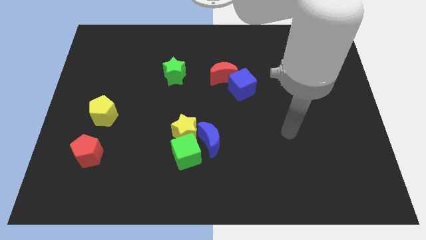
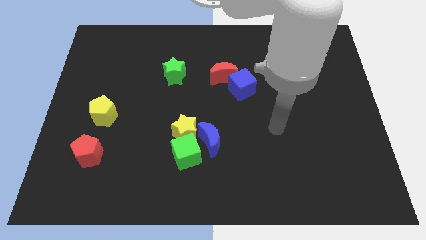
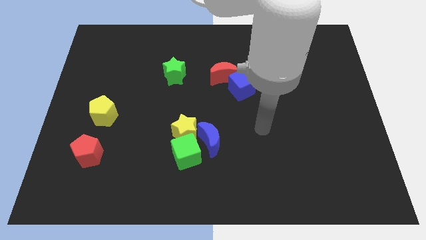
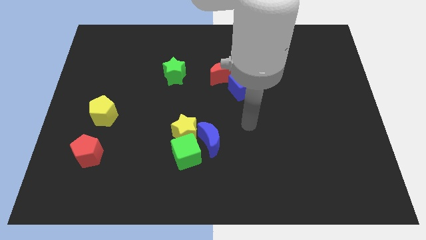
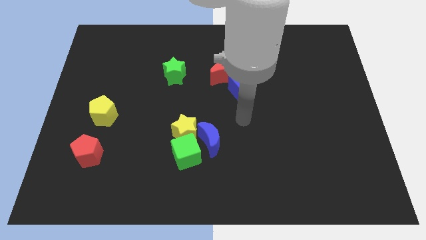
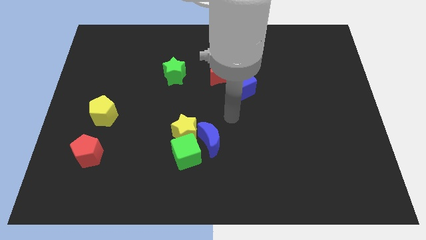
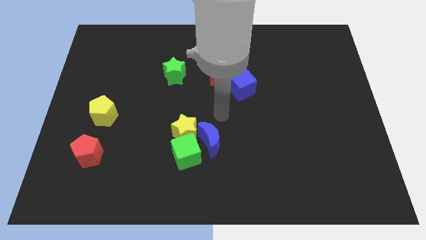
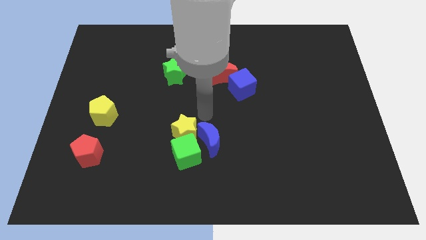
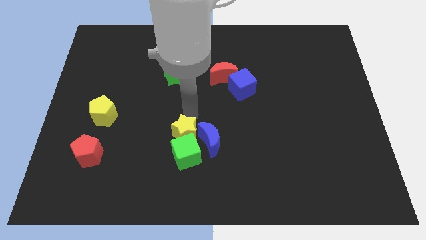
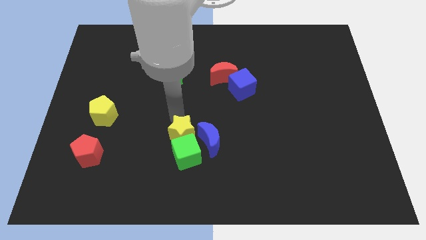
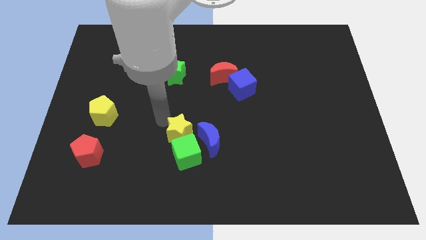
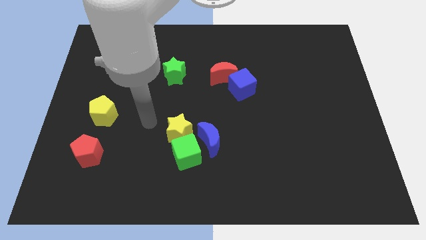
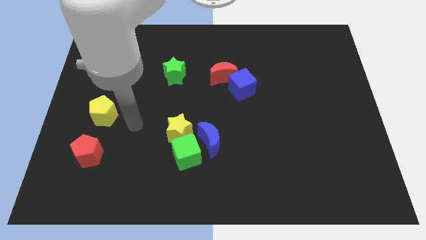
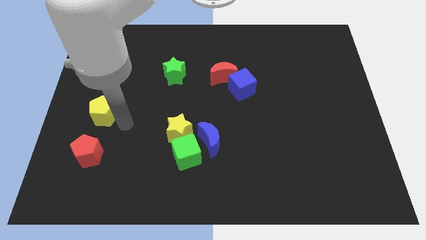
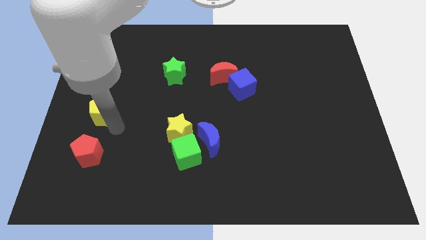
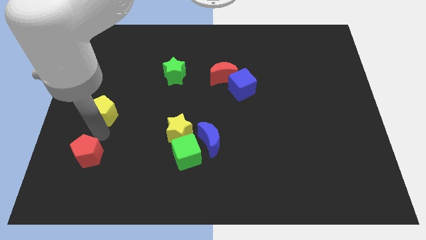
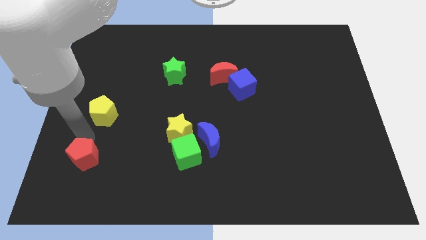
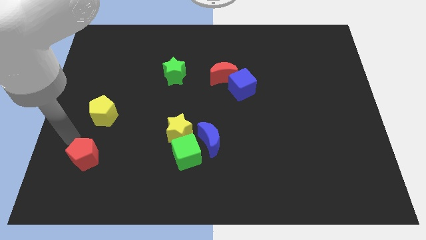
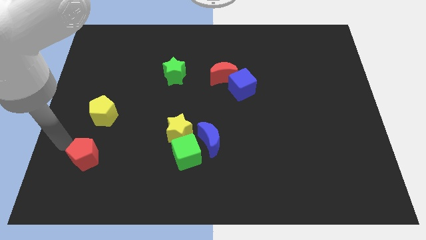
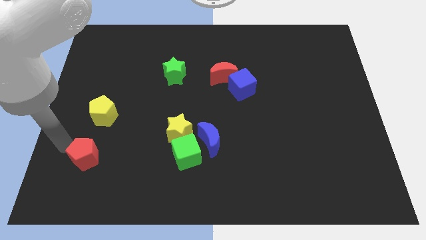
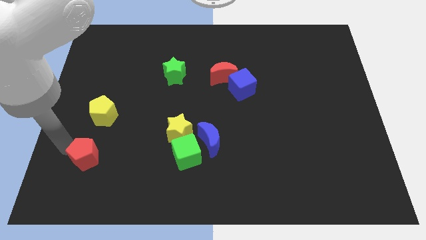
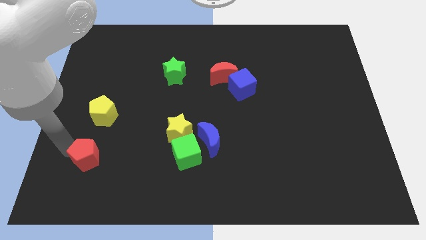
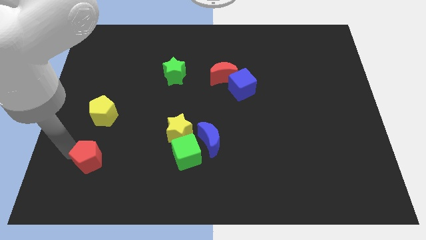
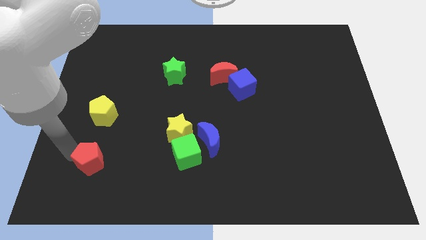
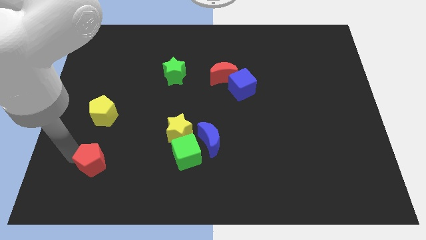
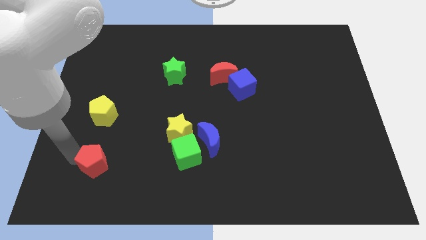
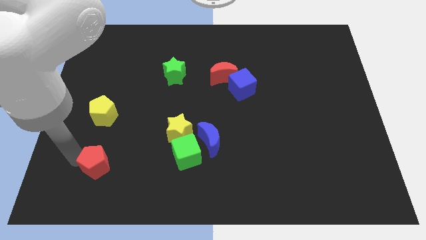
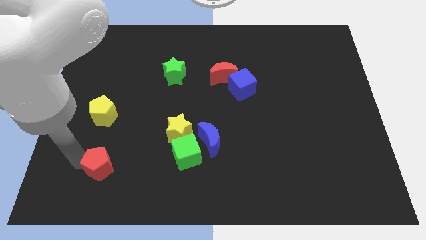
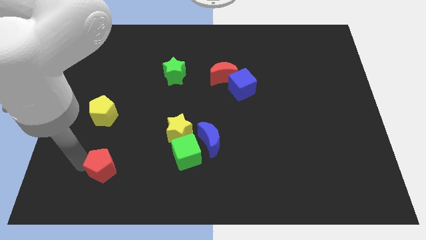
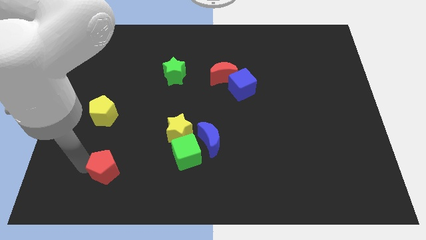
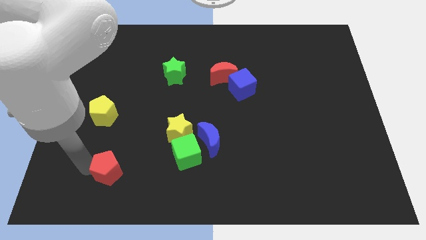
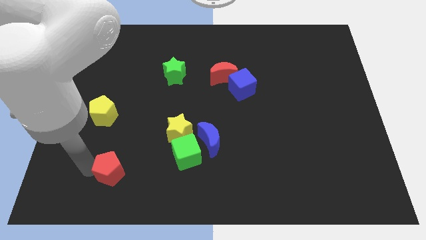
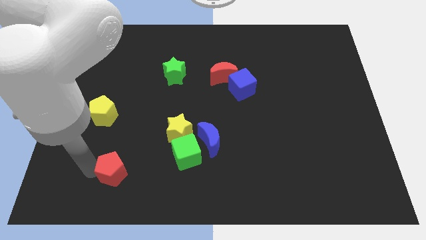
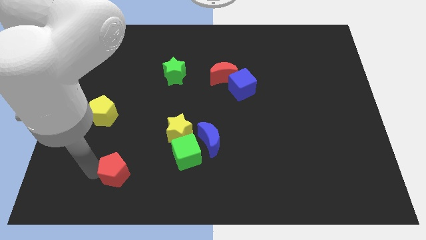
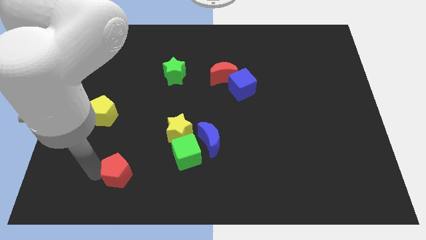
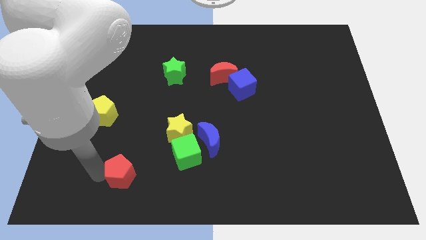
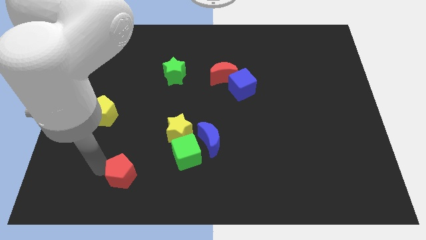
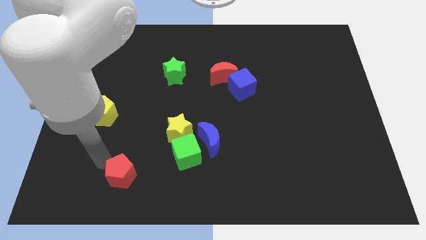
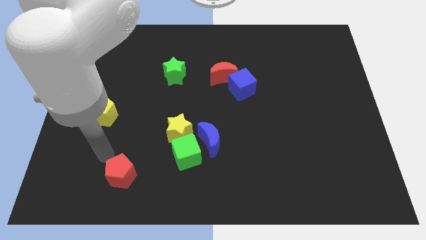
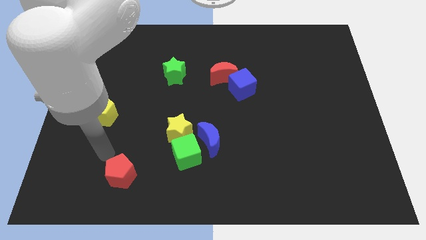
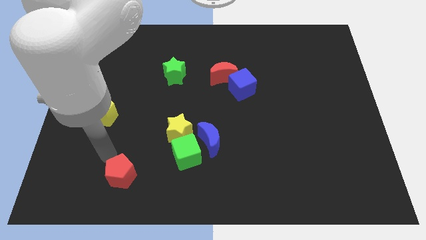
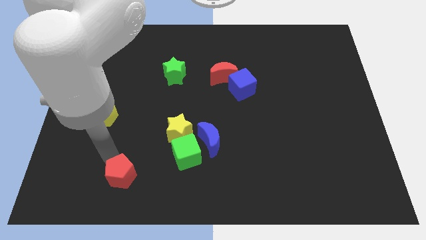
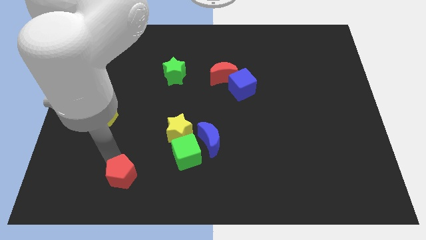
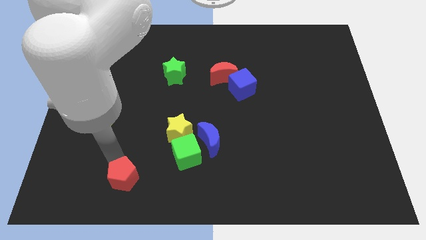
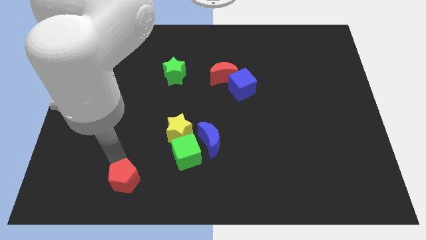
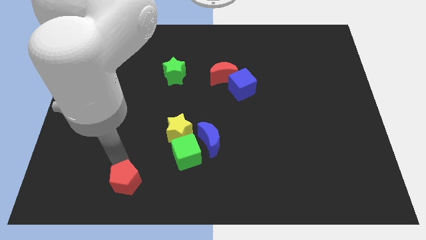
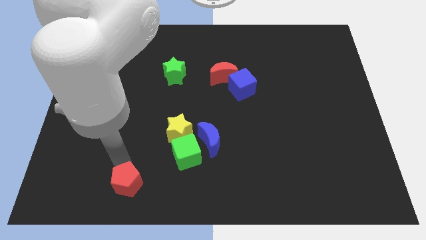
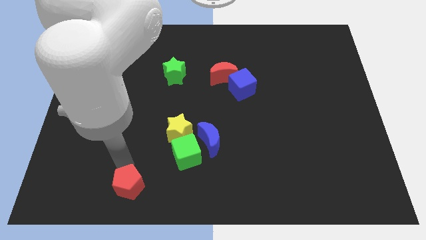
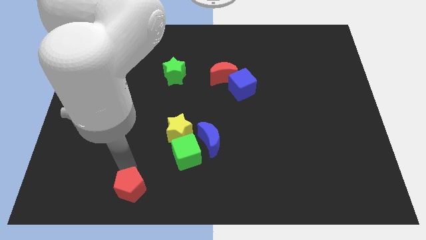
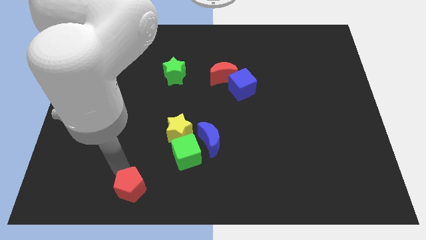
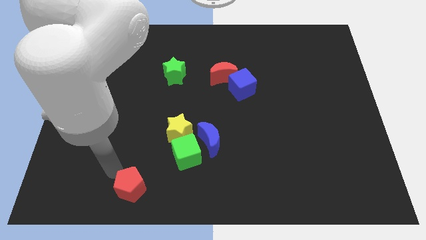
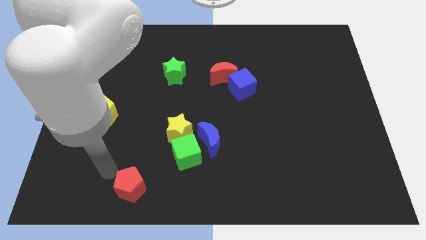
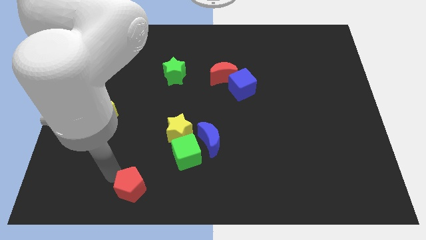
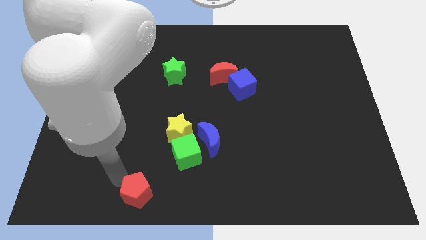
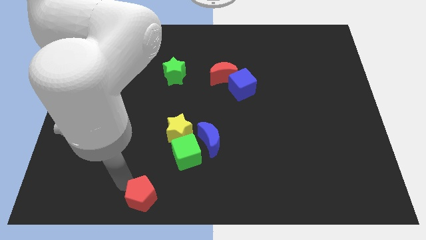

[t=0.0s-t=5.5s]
slide the red pentagon to the bottom side

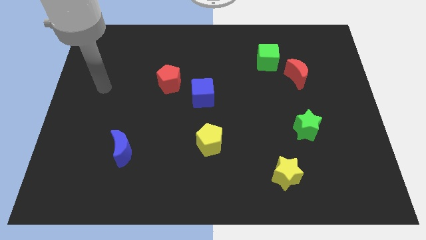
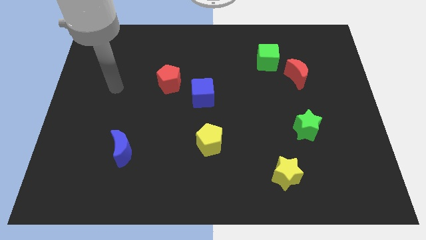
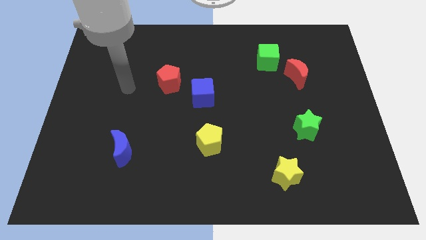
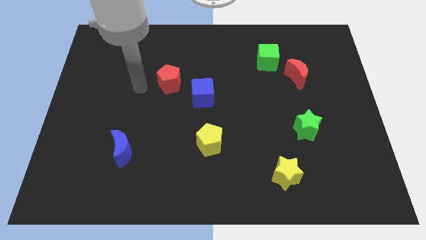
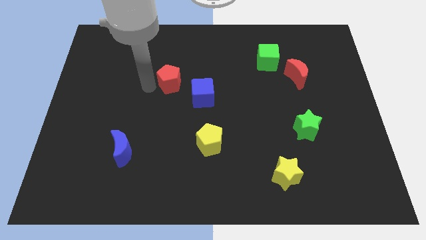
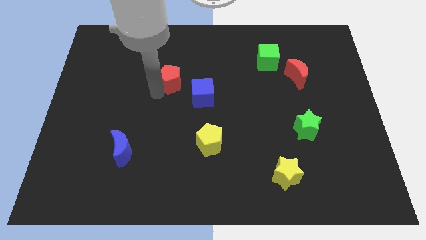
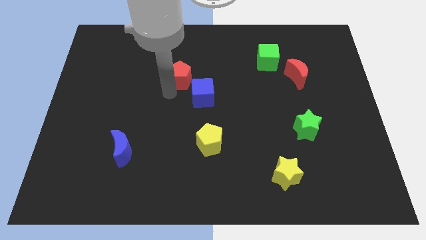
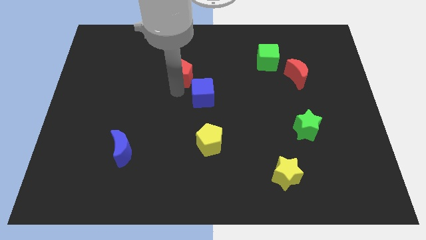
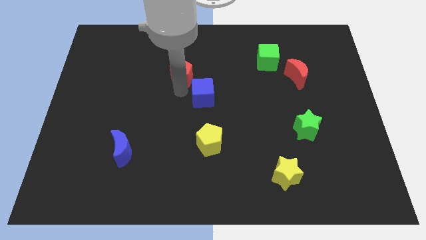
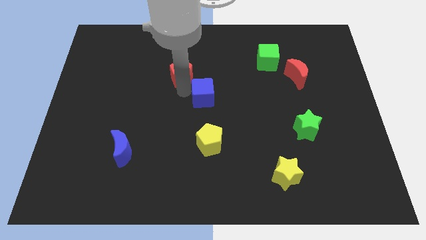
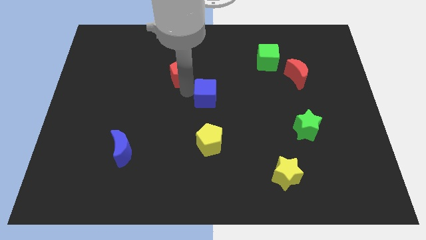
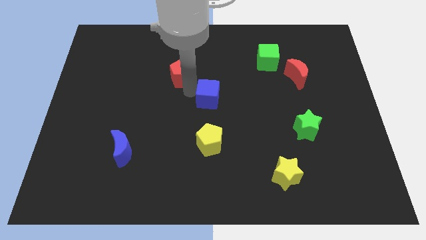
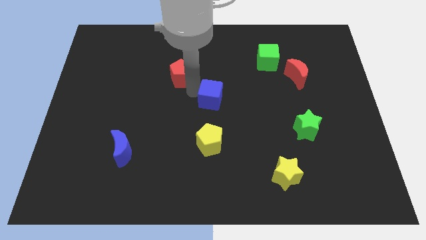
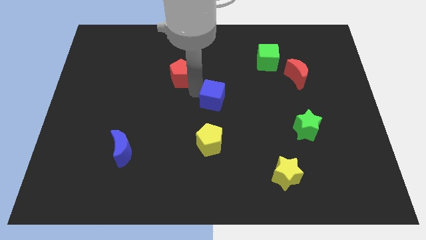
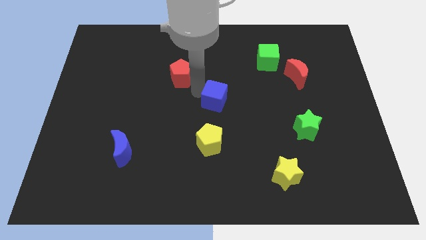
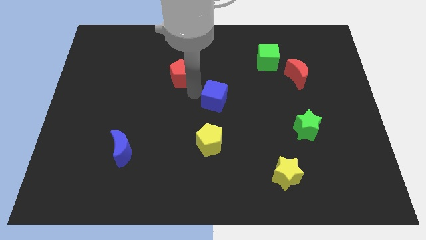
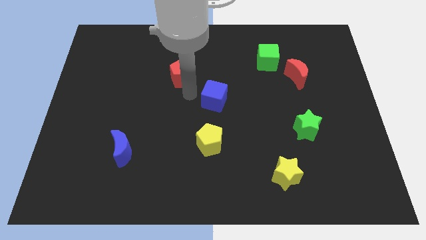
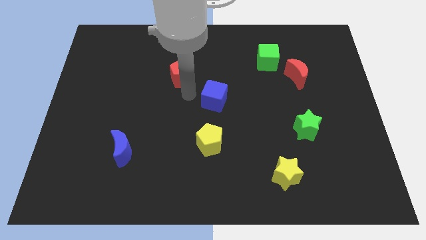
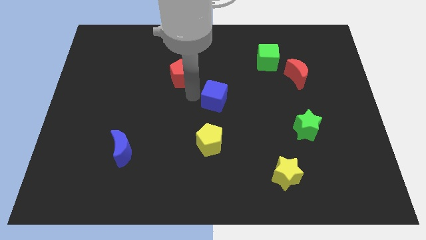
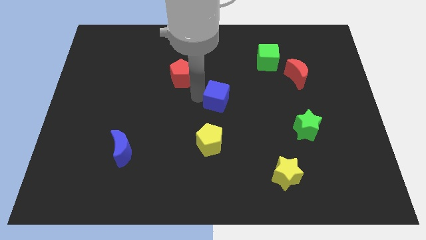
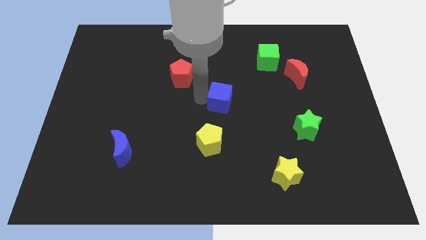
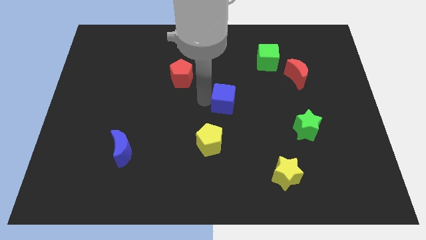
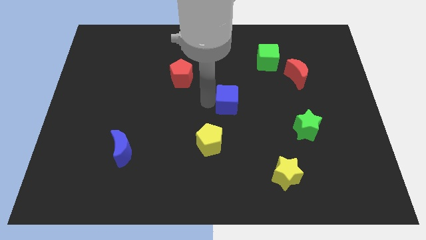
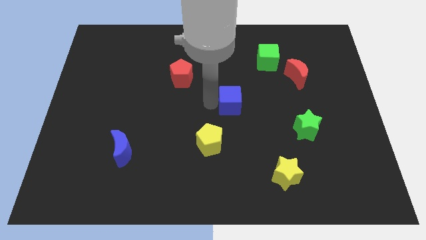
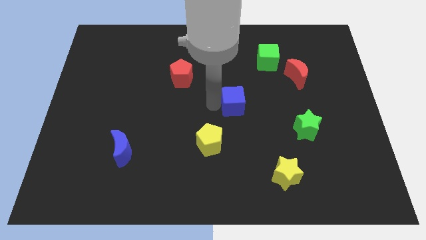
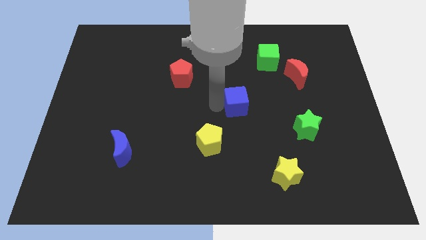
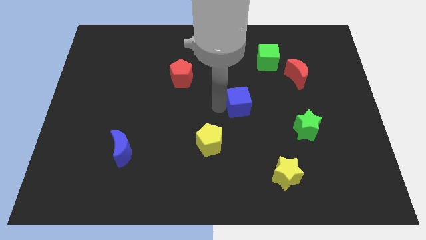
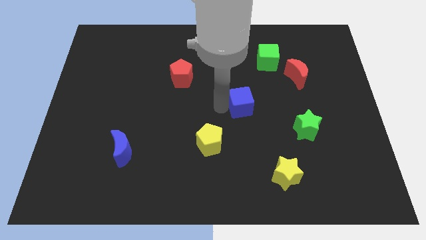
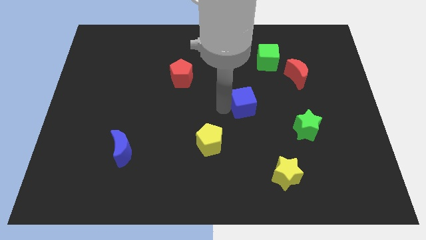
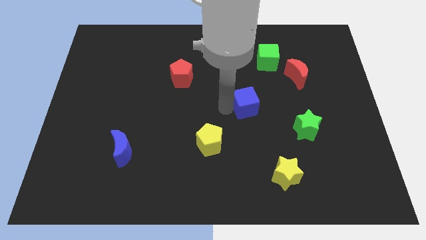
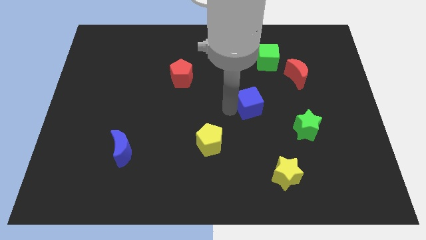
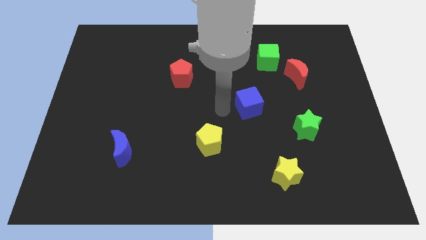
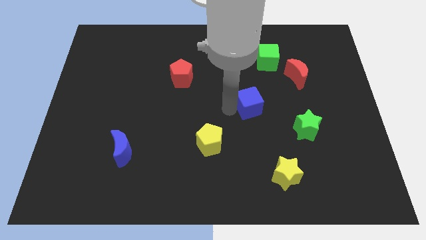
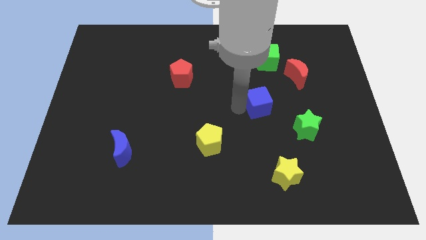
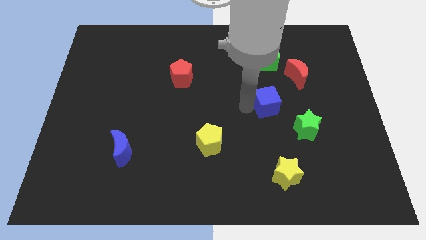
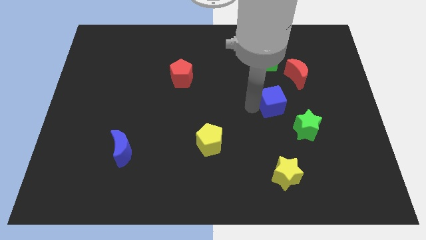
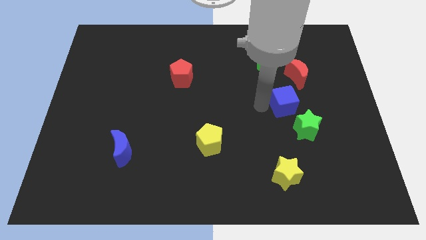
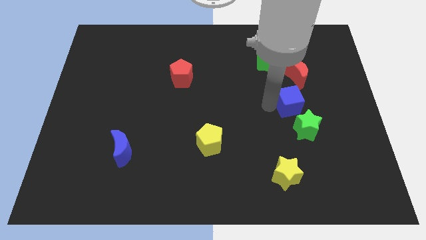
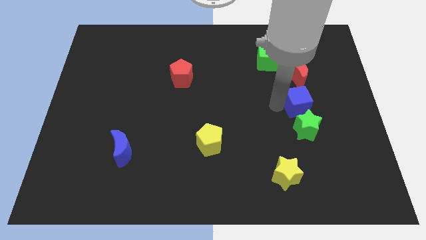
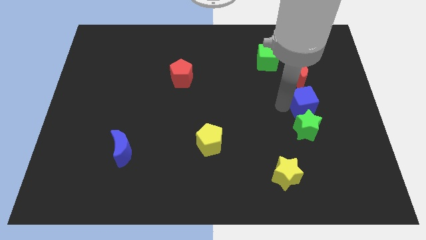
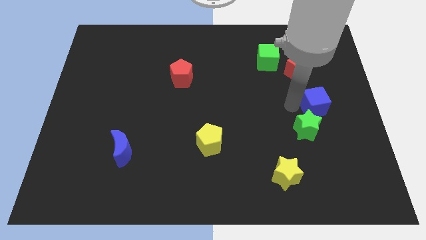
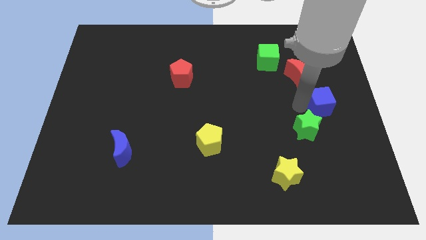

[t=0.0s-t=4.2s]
put the blue cube to the right side of the board
